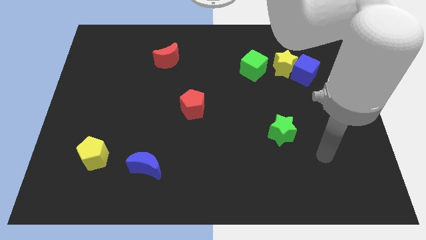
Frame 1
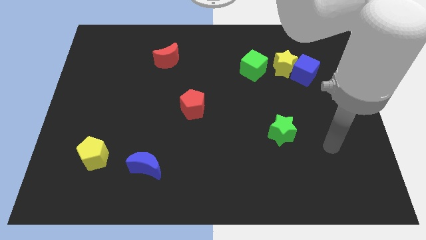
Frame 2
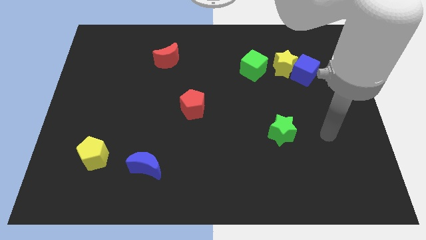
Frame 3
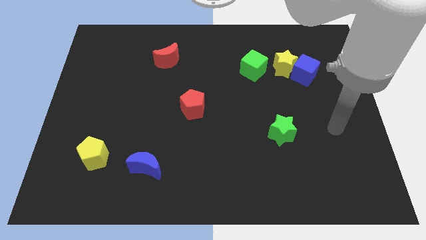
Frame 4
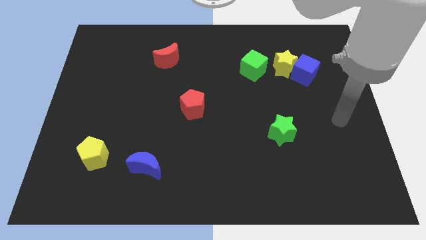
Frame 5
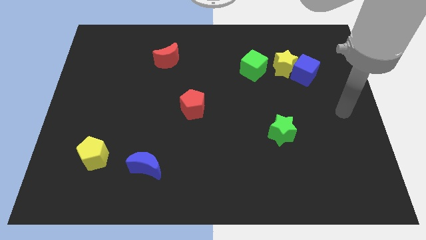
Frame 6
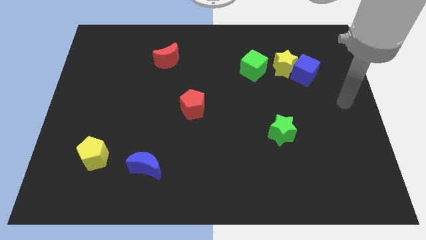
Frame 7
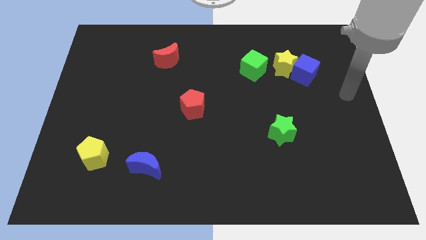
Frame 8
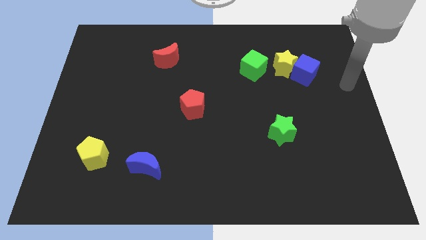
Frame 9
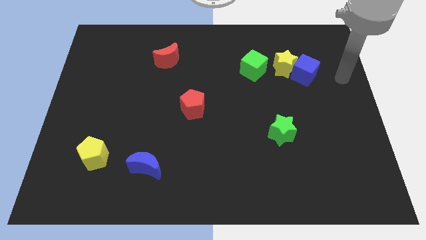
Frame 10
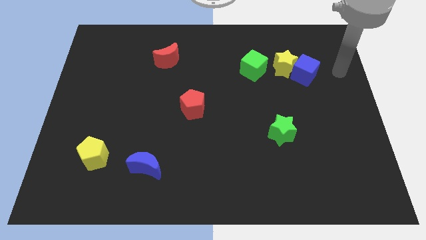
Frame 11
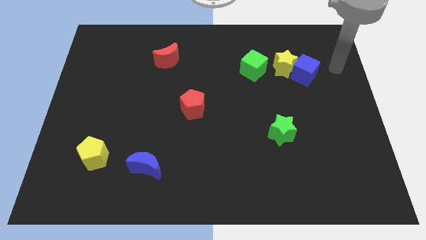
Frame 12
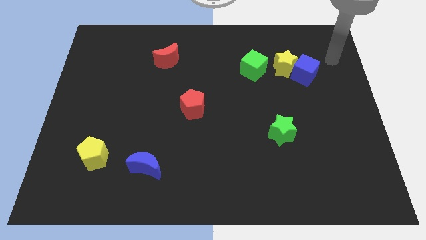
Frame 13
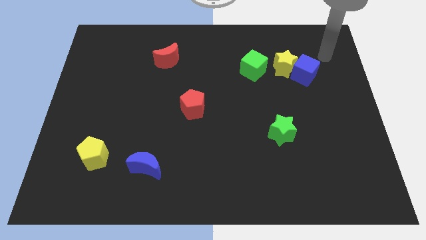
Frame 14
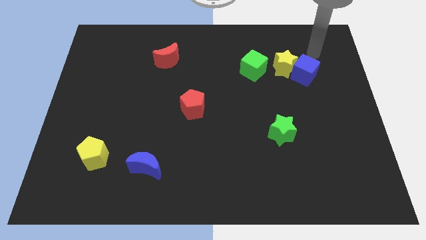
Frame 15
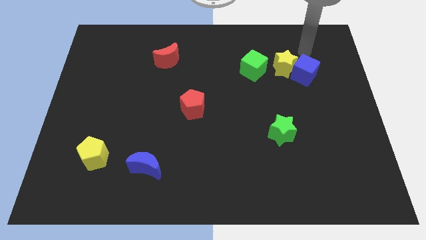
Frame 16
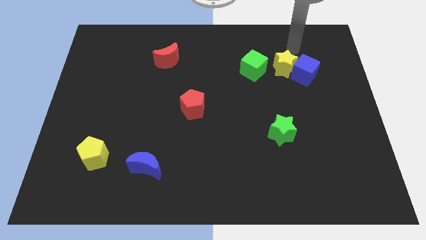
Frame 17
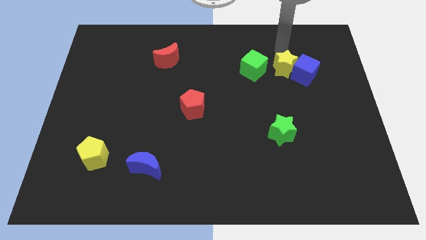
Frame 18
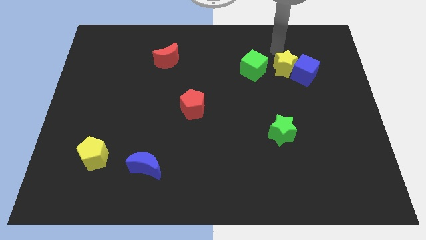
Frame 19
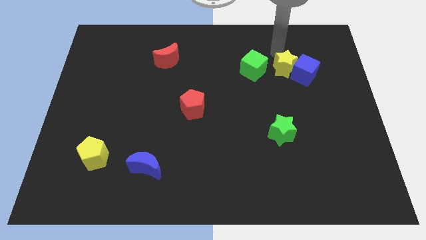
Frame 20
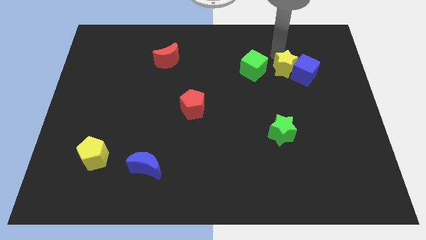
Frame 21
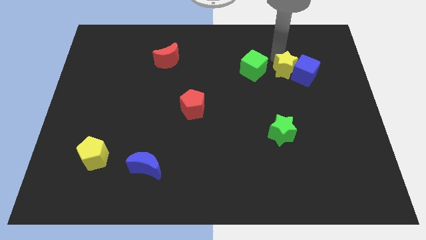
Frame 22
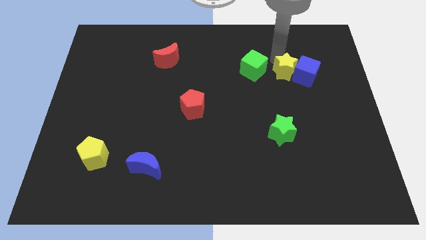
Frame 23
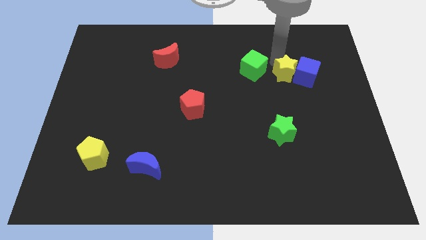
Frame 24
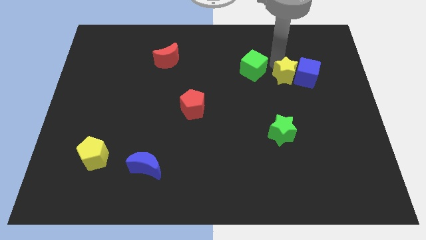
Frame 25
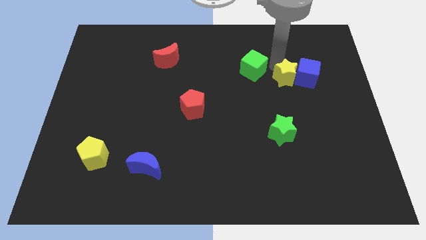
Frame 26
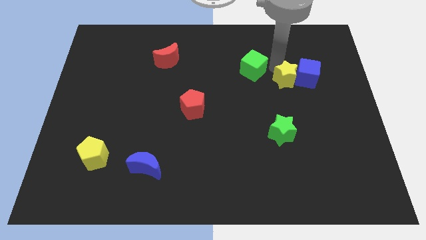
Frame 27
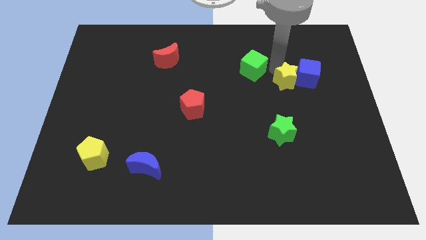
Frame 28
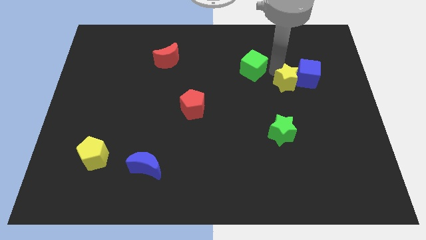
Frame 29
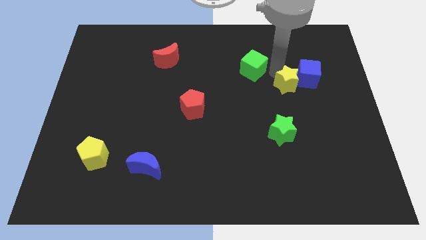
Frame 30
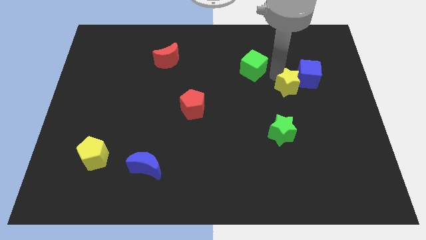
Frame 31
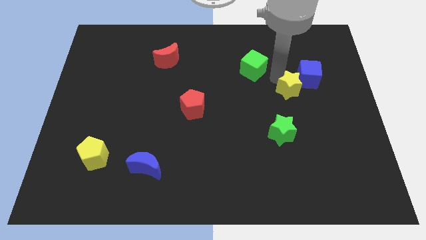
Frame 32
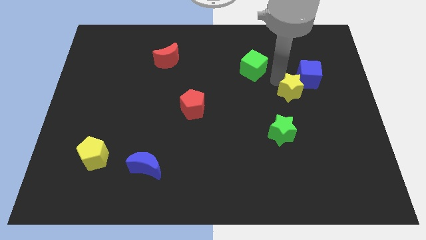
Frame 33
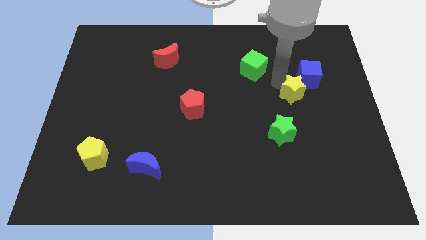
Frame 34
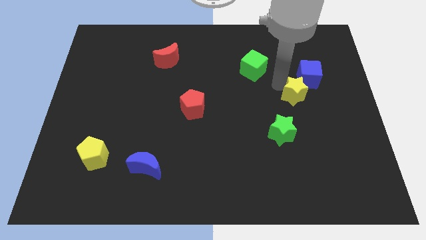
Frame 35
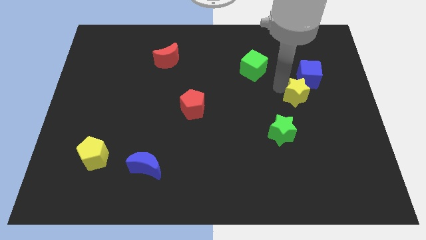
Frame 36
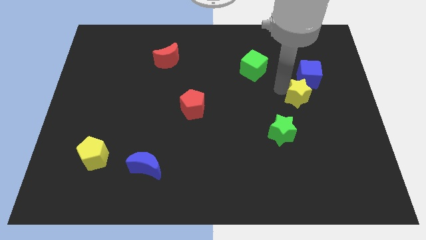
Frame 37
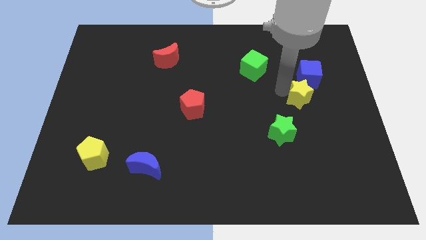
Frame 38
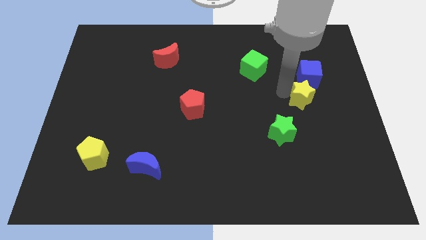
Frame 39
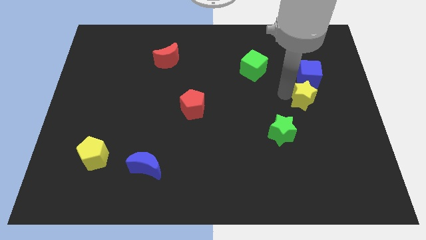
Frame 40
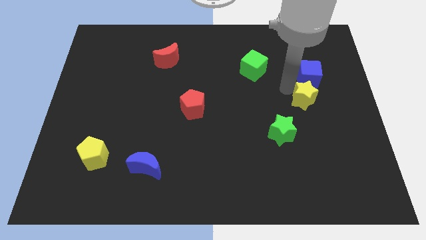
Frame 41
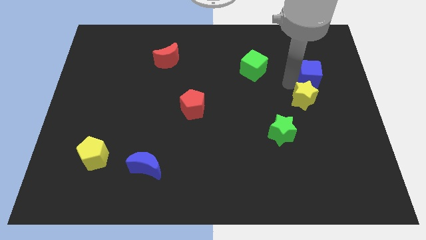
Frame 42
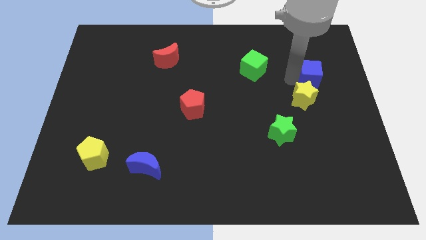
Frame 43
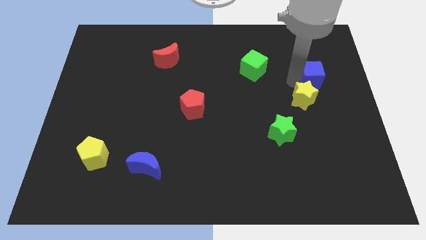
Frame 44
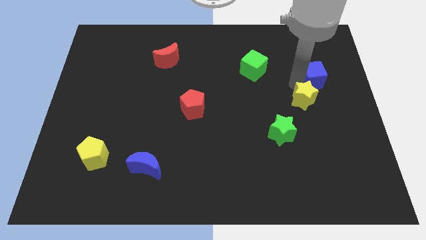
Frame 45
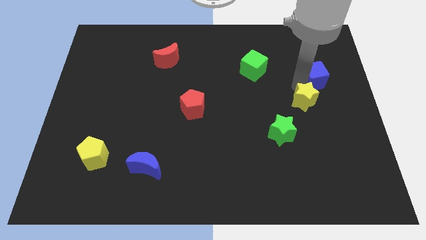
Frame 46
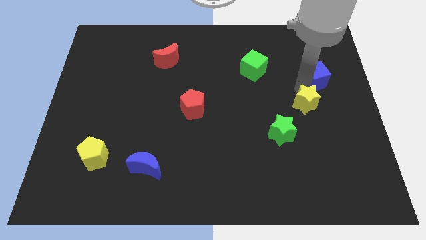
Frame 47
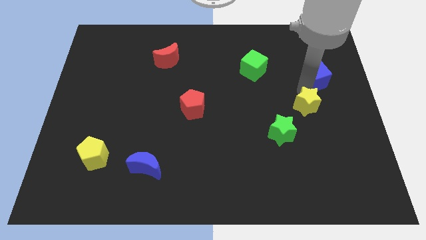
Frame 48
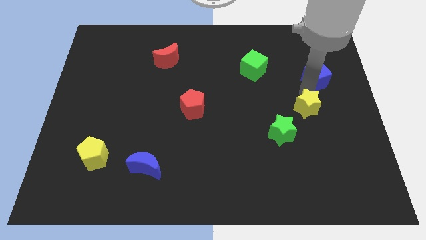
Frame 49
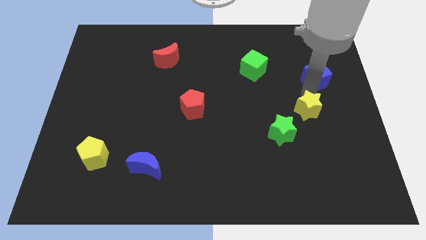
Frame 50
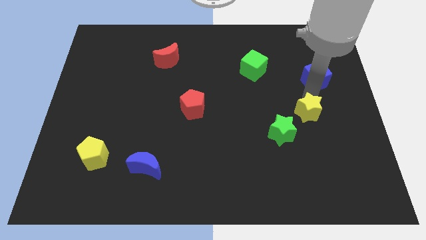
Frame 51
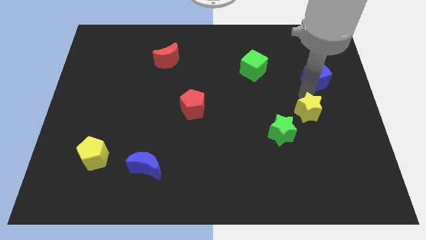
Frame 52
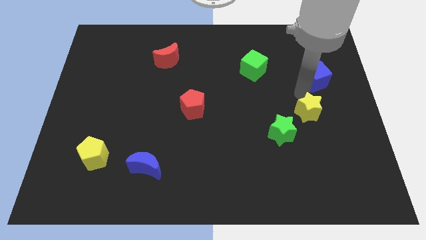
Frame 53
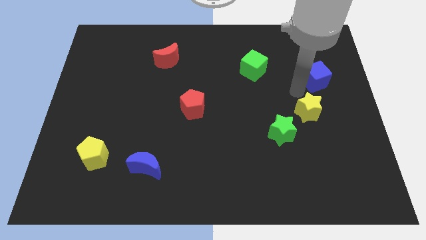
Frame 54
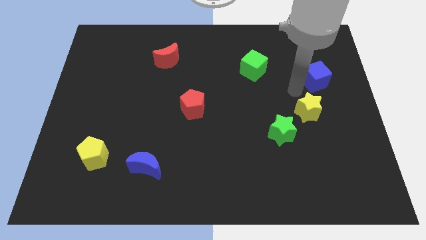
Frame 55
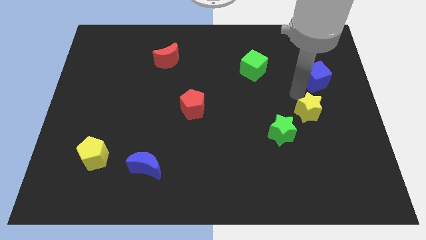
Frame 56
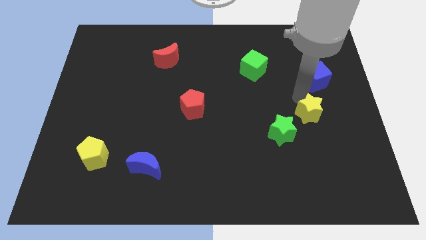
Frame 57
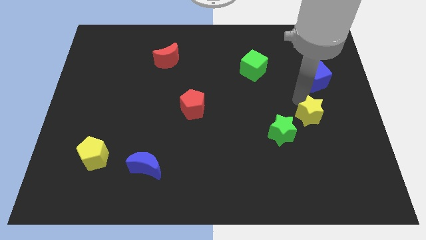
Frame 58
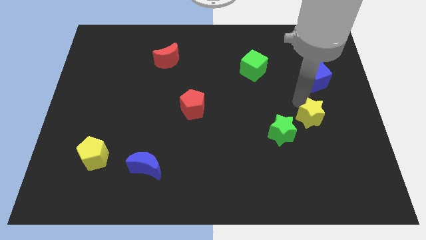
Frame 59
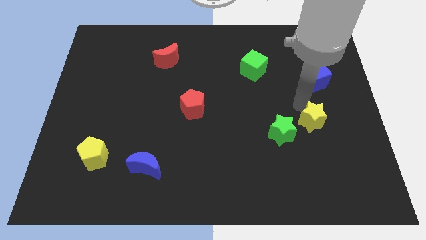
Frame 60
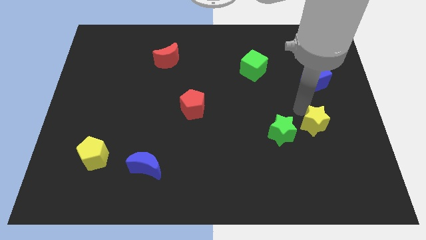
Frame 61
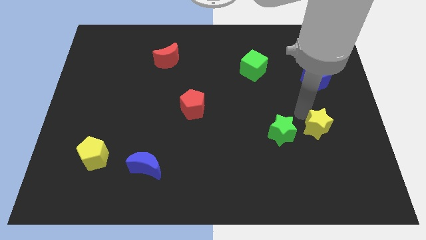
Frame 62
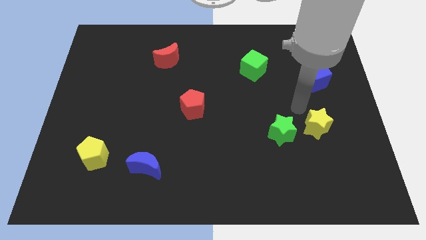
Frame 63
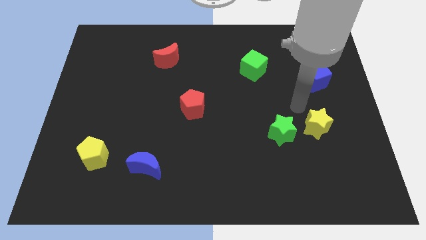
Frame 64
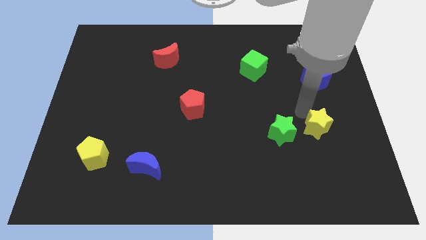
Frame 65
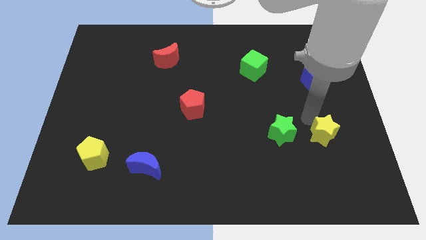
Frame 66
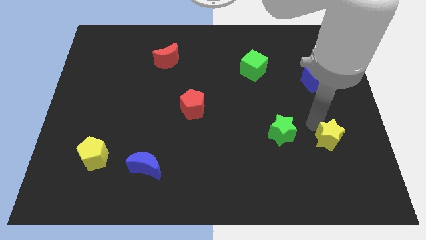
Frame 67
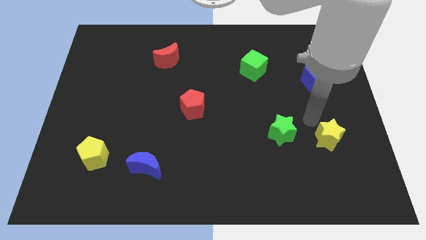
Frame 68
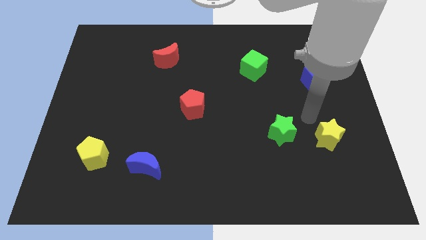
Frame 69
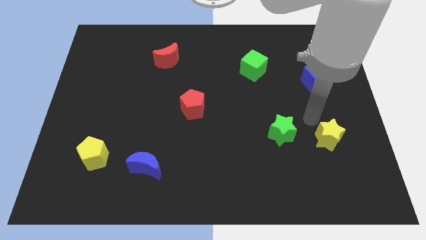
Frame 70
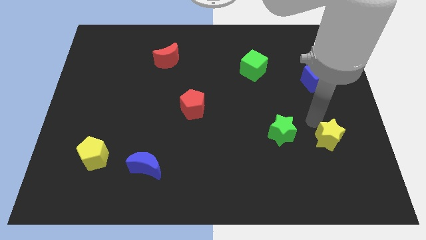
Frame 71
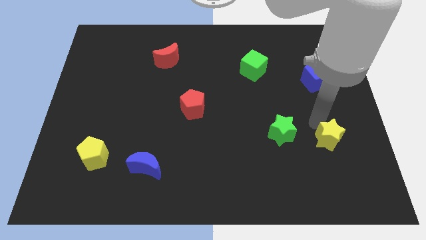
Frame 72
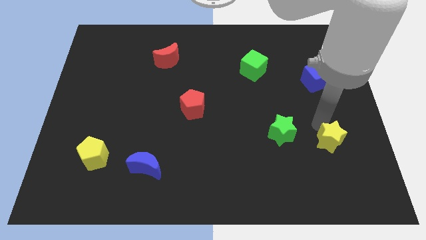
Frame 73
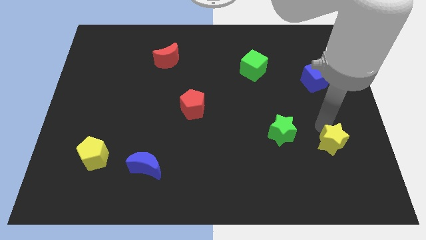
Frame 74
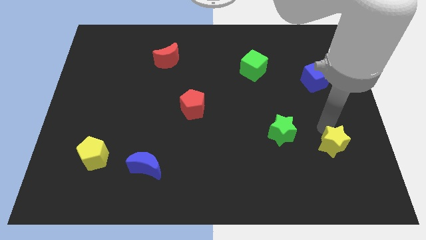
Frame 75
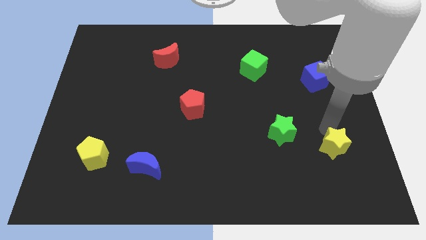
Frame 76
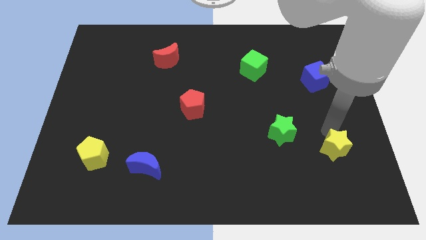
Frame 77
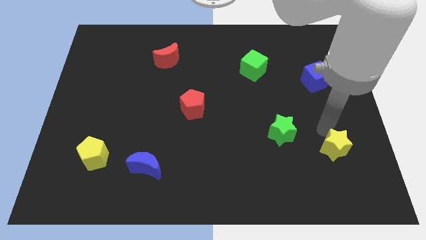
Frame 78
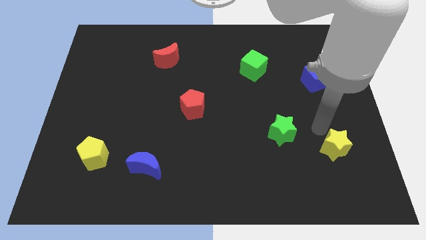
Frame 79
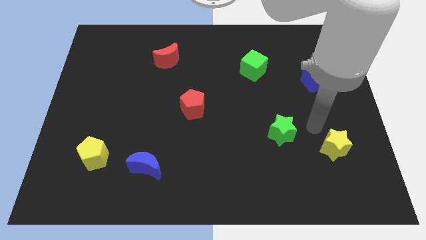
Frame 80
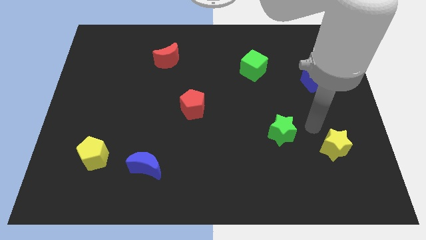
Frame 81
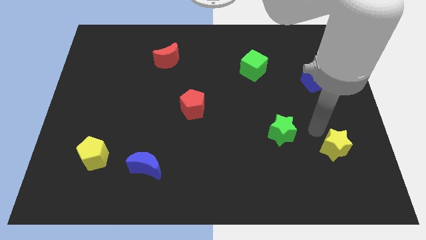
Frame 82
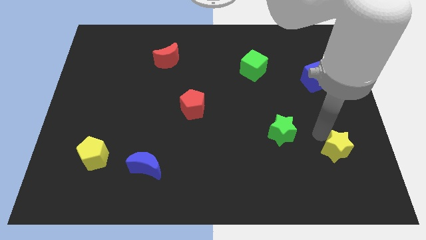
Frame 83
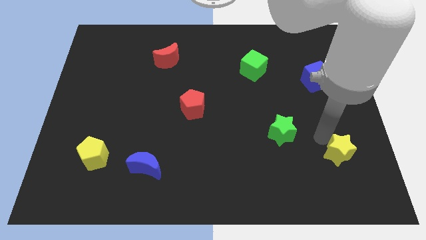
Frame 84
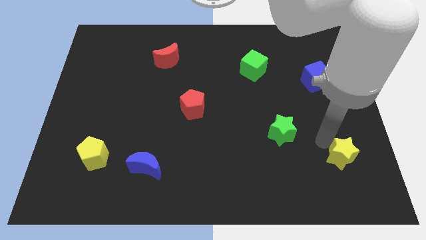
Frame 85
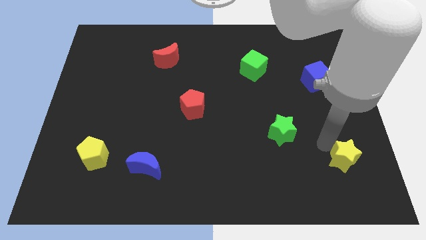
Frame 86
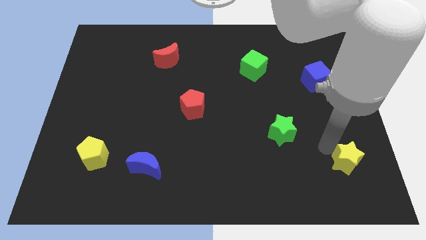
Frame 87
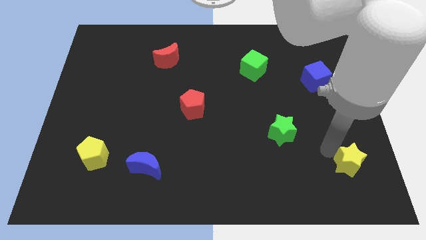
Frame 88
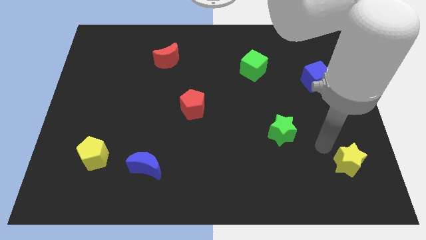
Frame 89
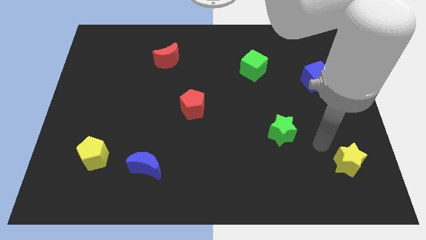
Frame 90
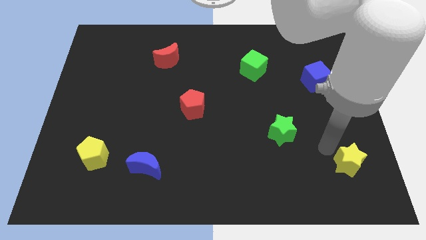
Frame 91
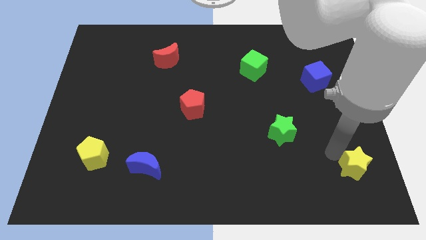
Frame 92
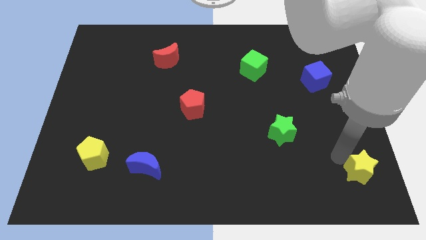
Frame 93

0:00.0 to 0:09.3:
slide the yellow star to the lower right corner
